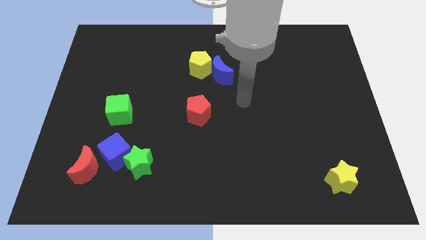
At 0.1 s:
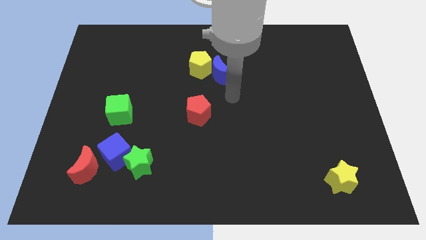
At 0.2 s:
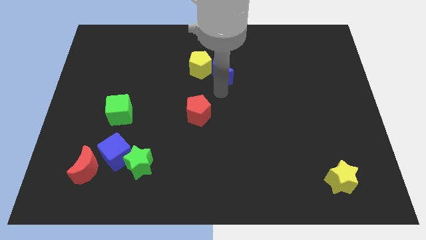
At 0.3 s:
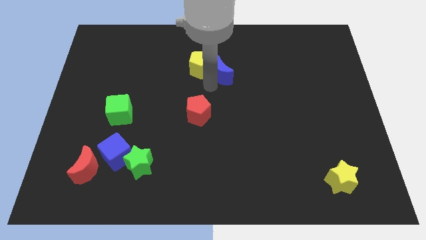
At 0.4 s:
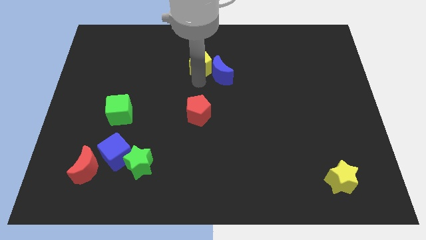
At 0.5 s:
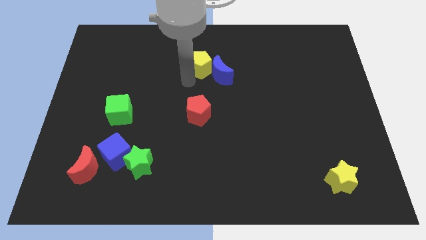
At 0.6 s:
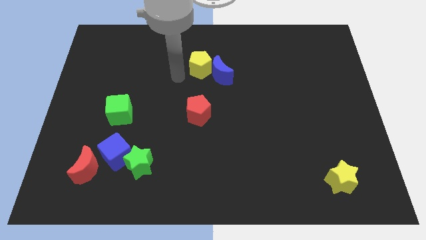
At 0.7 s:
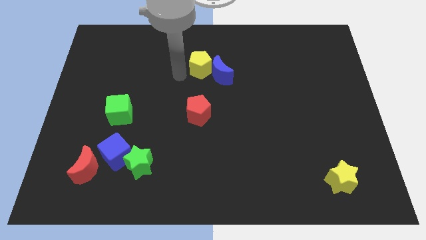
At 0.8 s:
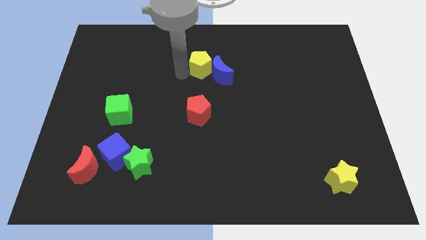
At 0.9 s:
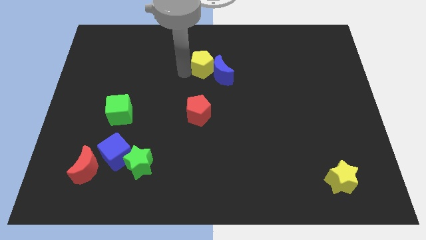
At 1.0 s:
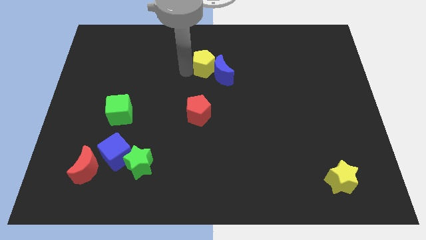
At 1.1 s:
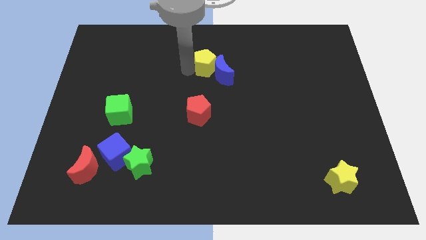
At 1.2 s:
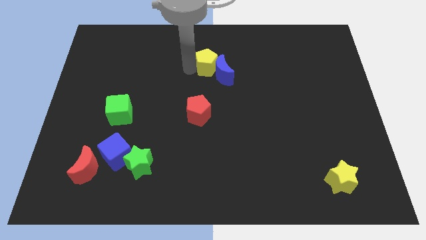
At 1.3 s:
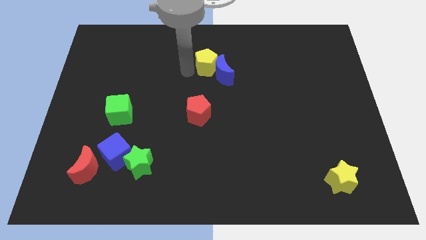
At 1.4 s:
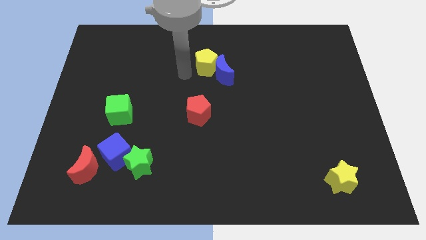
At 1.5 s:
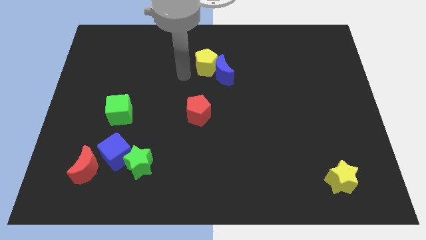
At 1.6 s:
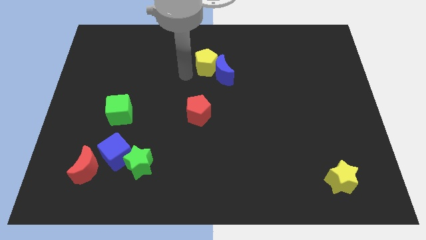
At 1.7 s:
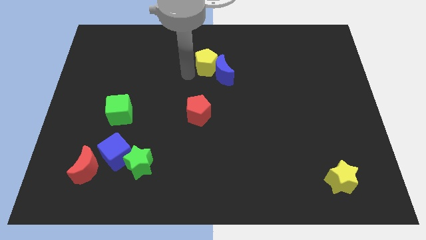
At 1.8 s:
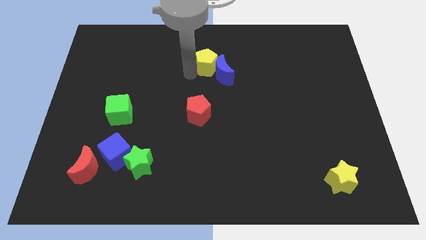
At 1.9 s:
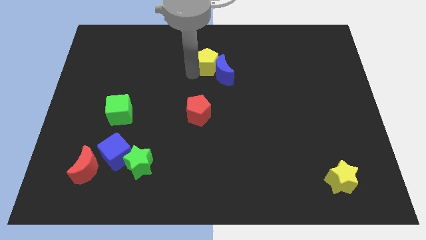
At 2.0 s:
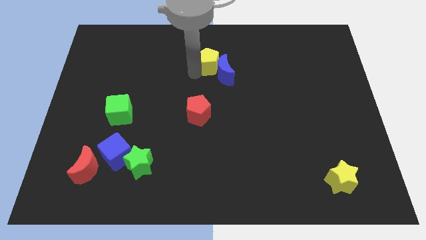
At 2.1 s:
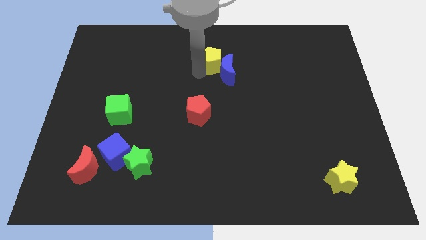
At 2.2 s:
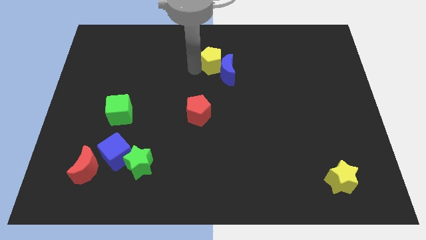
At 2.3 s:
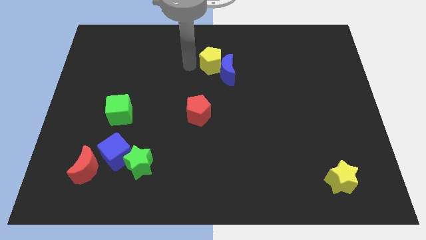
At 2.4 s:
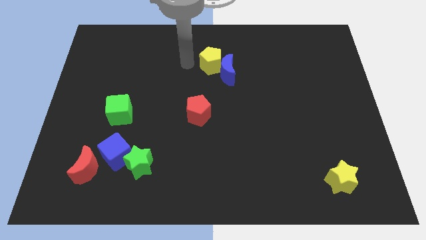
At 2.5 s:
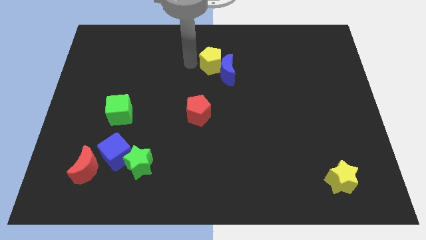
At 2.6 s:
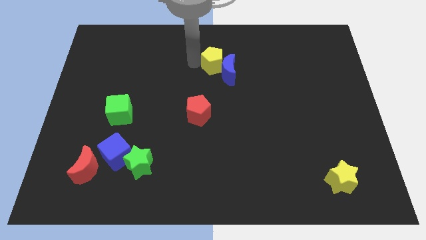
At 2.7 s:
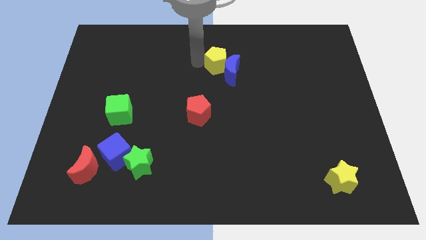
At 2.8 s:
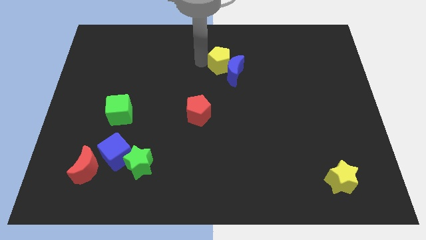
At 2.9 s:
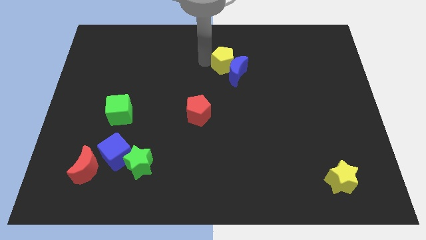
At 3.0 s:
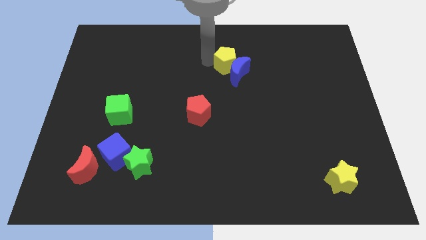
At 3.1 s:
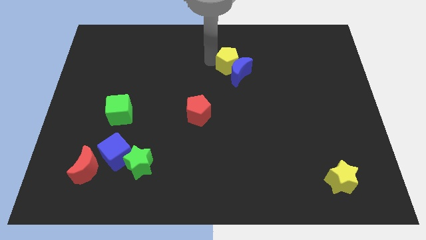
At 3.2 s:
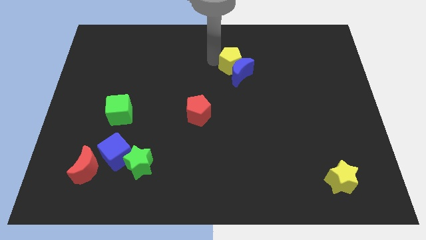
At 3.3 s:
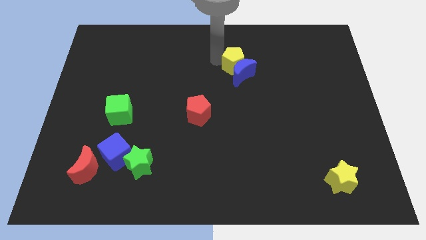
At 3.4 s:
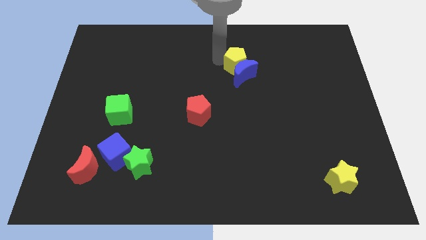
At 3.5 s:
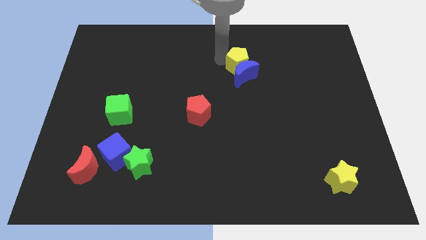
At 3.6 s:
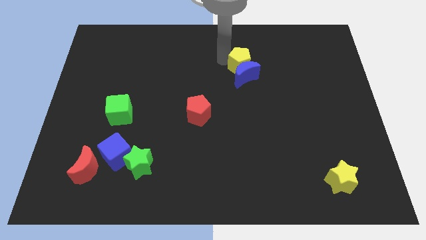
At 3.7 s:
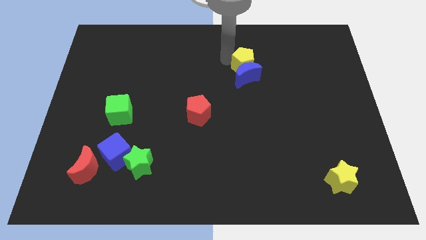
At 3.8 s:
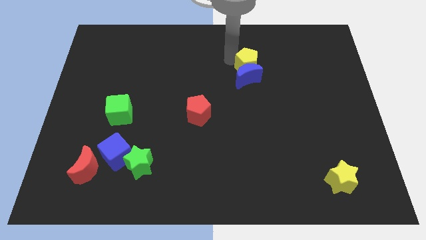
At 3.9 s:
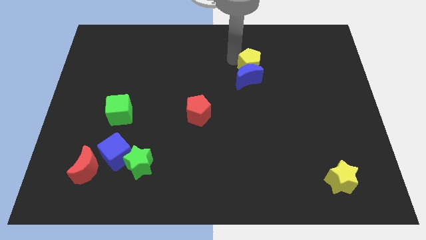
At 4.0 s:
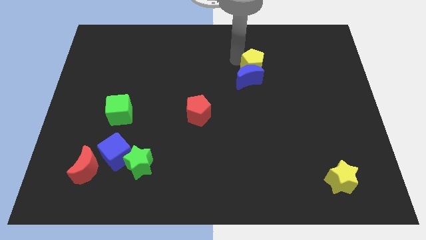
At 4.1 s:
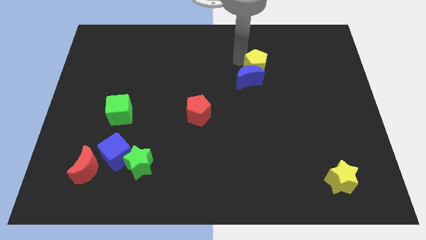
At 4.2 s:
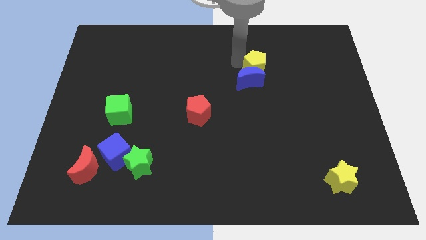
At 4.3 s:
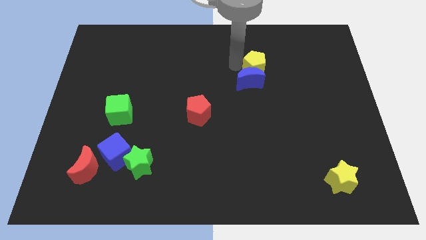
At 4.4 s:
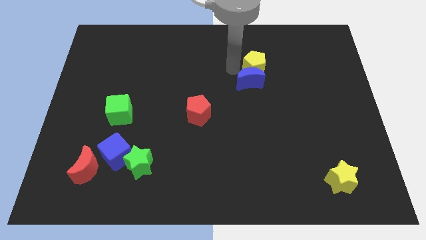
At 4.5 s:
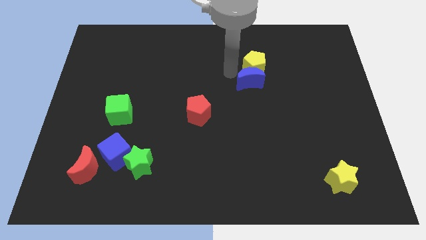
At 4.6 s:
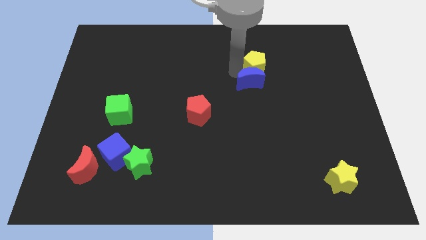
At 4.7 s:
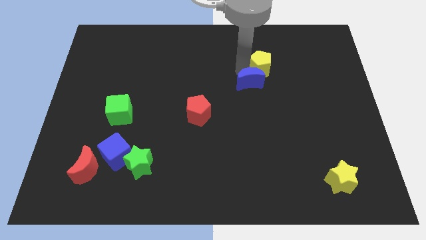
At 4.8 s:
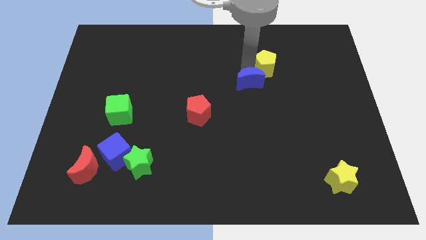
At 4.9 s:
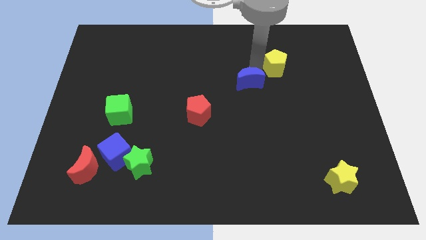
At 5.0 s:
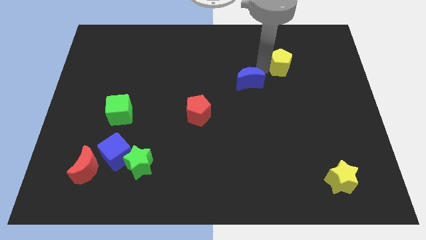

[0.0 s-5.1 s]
push the yellow pentagon to the right

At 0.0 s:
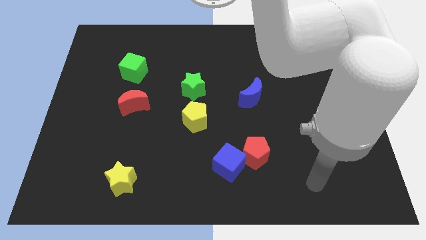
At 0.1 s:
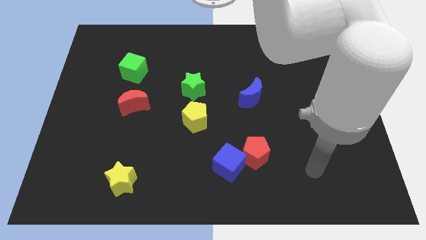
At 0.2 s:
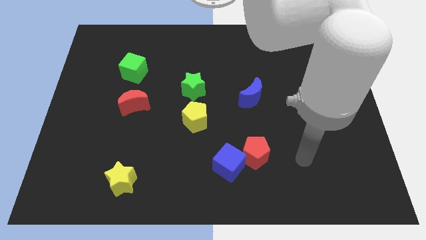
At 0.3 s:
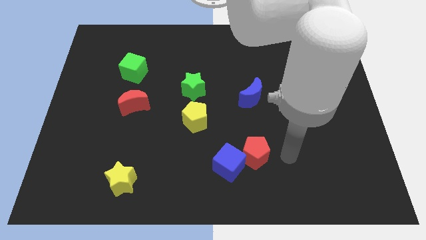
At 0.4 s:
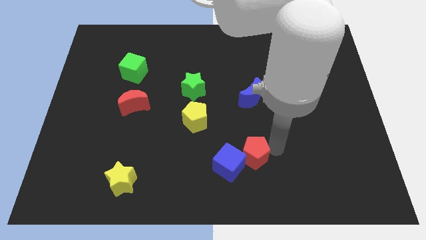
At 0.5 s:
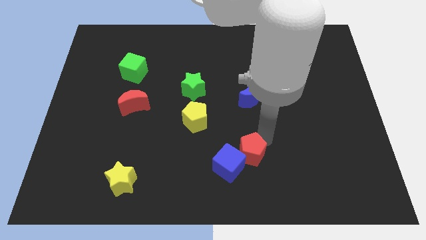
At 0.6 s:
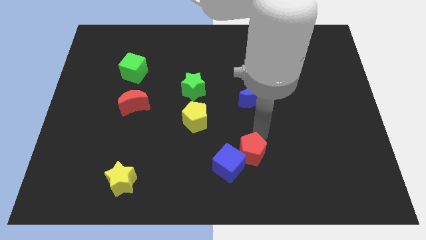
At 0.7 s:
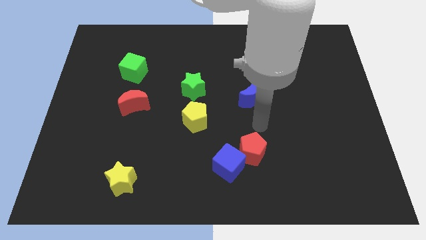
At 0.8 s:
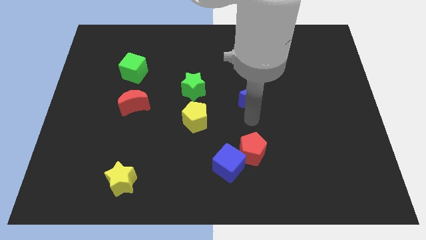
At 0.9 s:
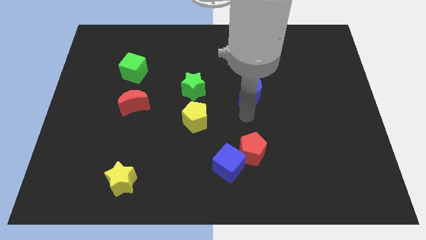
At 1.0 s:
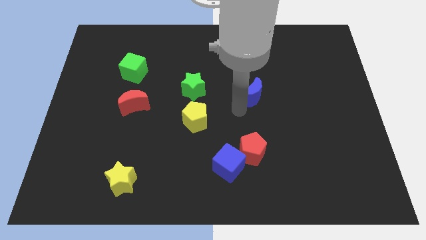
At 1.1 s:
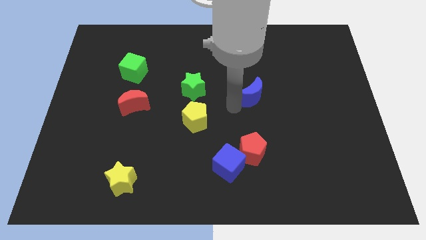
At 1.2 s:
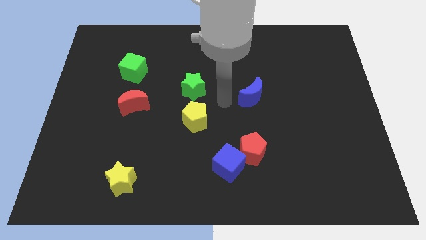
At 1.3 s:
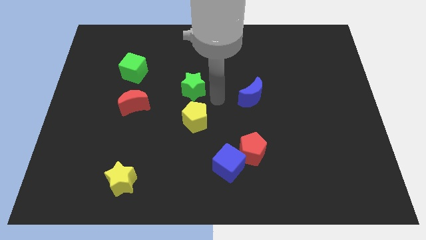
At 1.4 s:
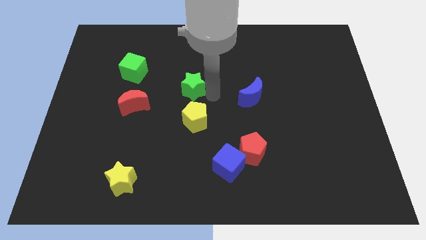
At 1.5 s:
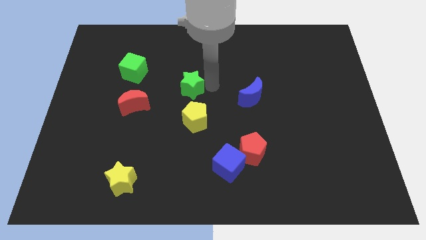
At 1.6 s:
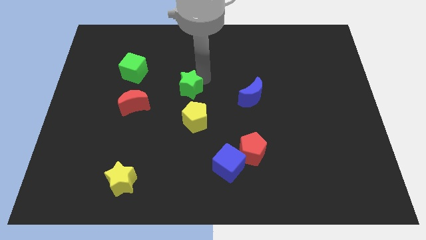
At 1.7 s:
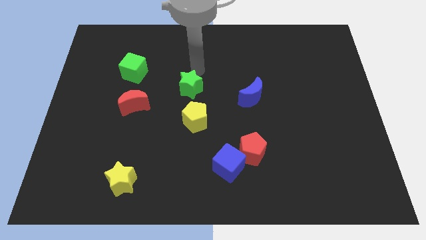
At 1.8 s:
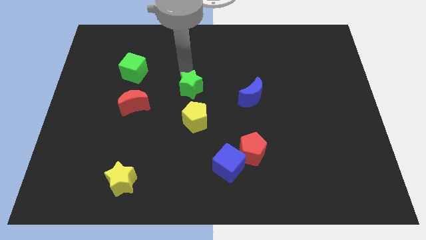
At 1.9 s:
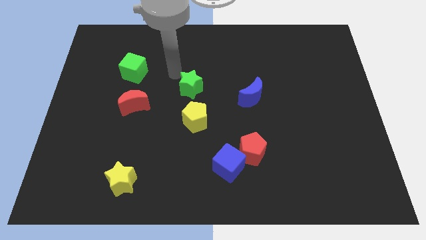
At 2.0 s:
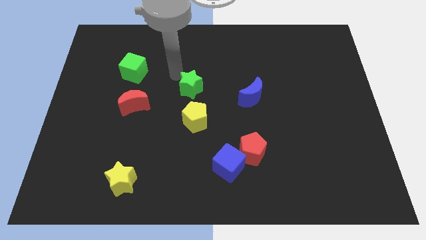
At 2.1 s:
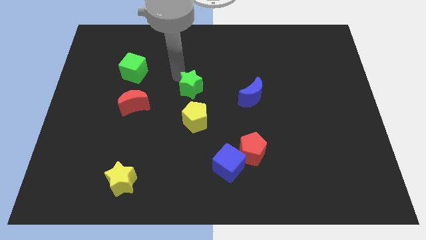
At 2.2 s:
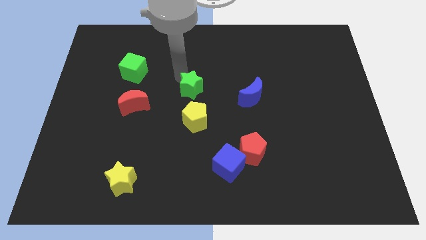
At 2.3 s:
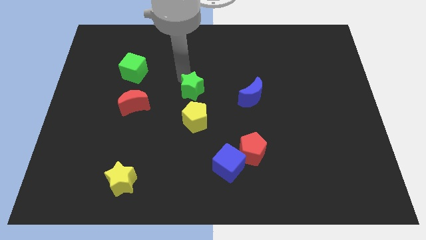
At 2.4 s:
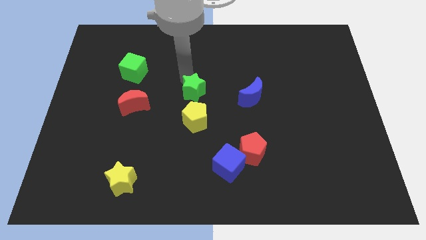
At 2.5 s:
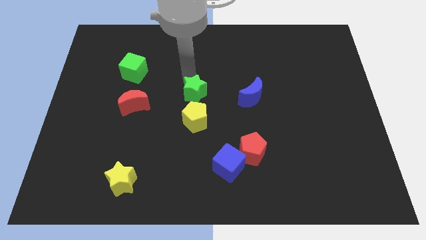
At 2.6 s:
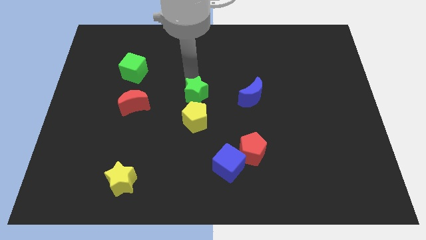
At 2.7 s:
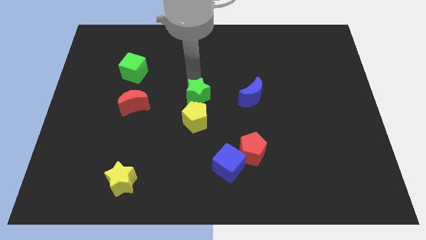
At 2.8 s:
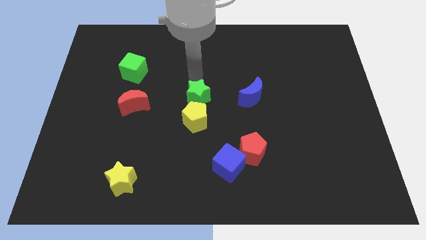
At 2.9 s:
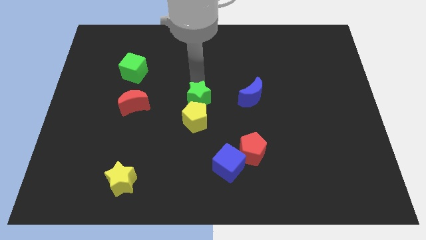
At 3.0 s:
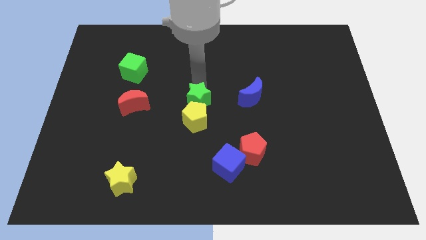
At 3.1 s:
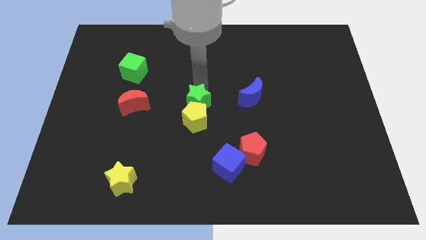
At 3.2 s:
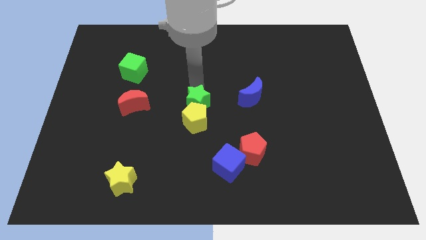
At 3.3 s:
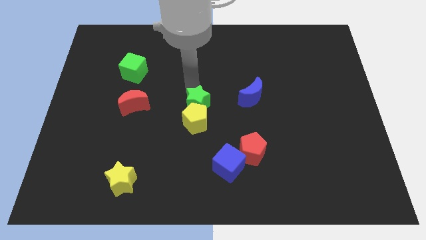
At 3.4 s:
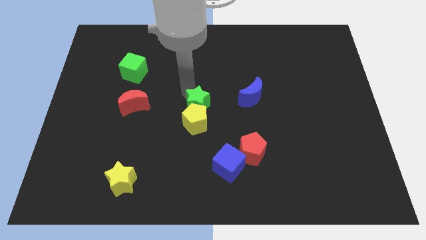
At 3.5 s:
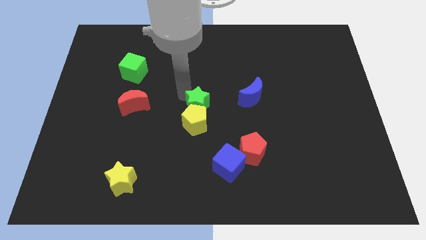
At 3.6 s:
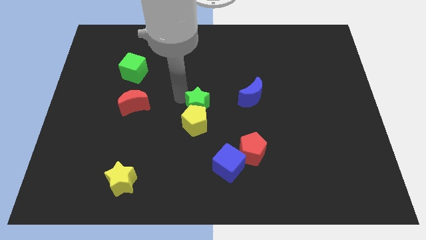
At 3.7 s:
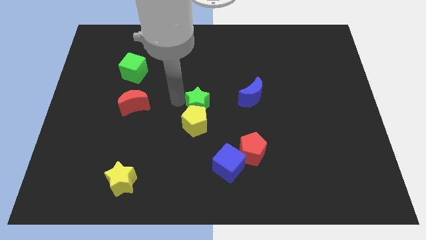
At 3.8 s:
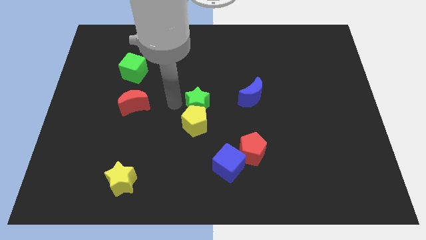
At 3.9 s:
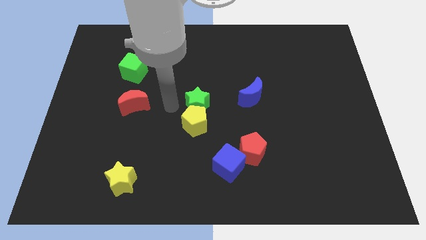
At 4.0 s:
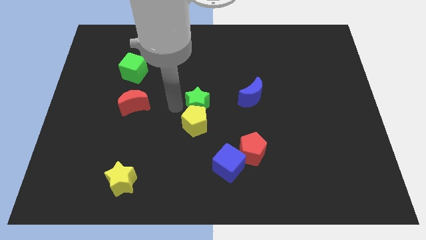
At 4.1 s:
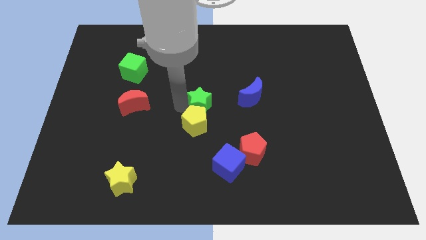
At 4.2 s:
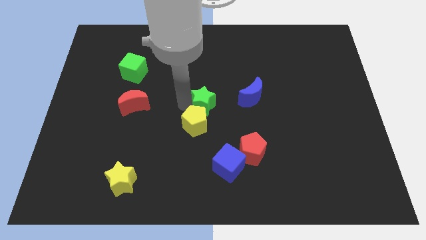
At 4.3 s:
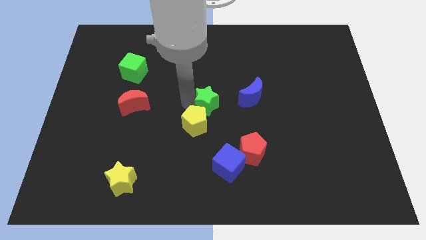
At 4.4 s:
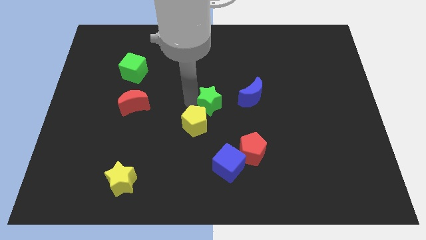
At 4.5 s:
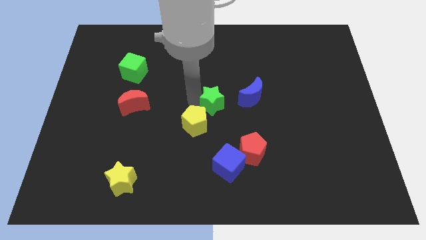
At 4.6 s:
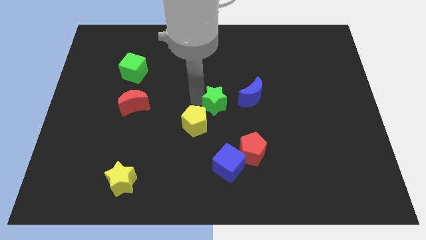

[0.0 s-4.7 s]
slightly push the green star diagonally downwards and right
